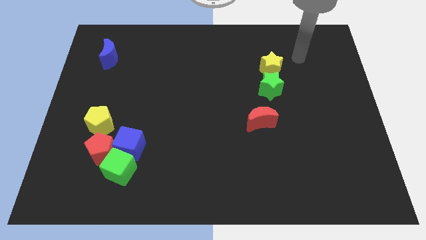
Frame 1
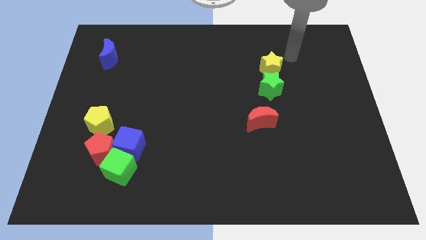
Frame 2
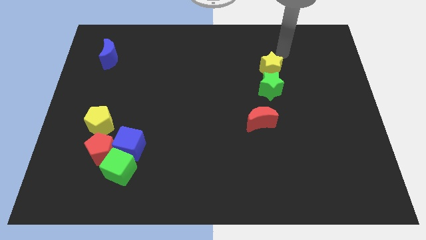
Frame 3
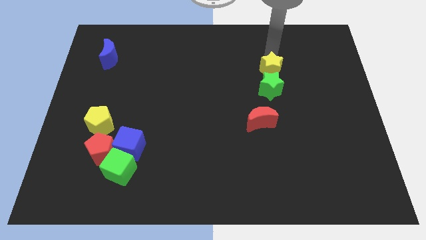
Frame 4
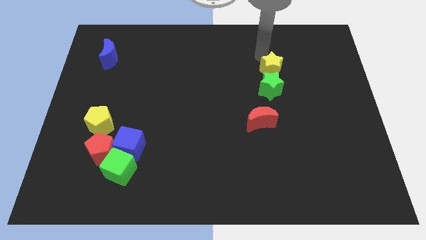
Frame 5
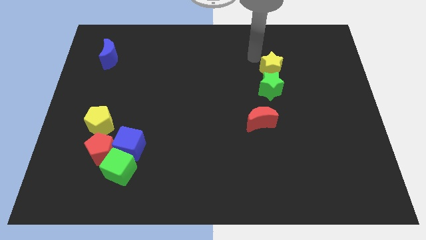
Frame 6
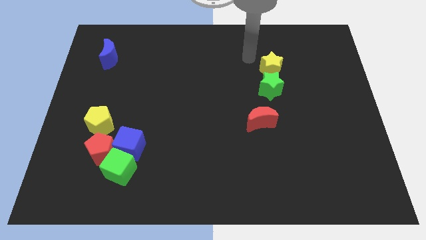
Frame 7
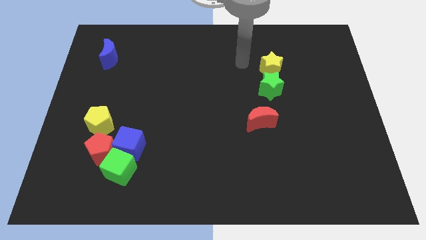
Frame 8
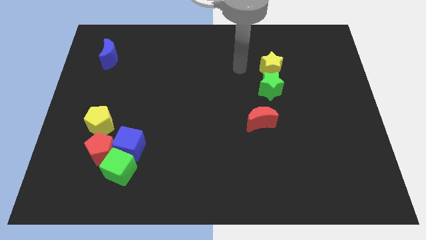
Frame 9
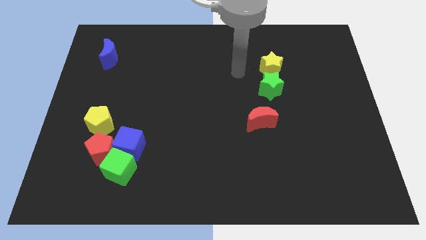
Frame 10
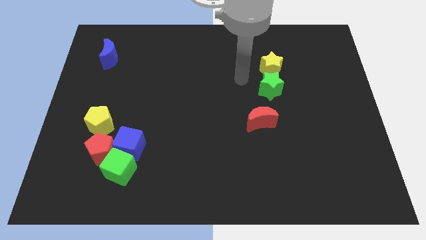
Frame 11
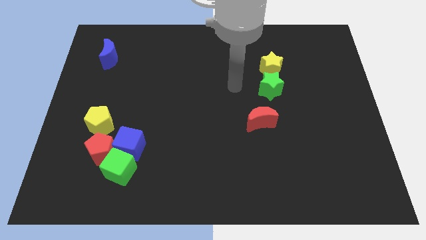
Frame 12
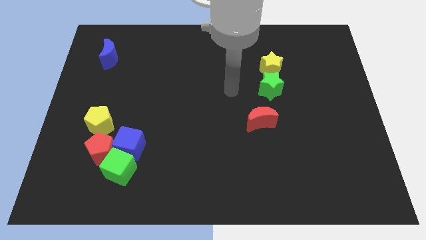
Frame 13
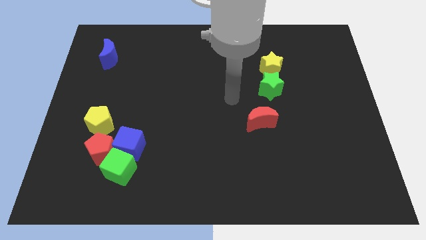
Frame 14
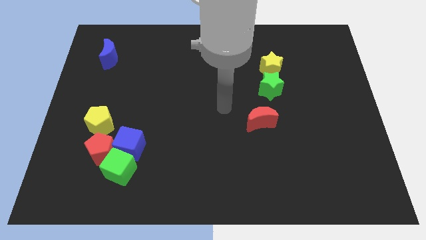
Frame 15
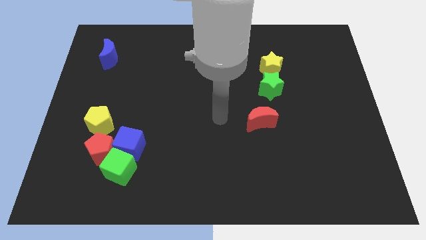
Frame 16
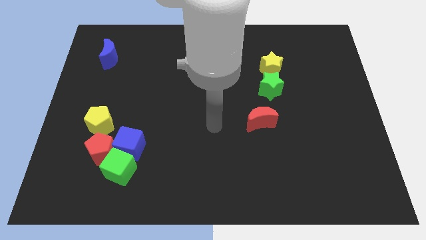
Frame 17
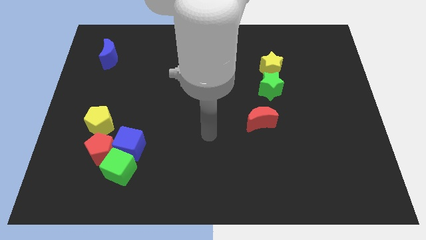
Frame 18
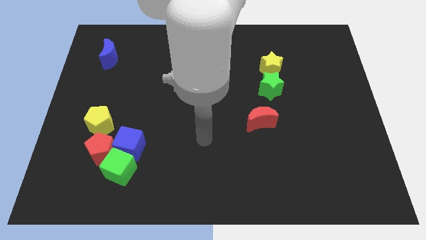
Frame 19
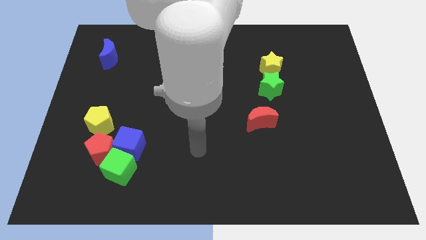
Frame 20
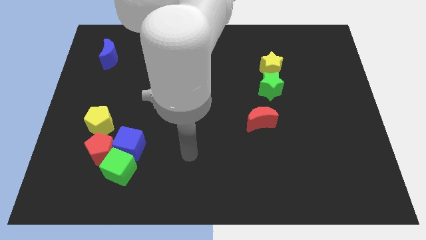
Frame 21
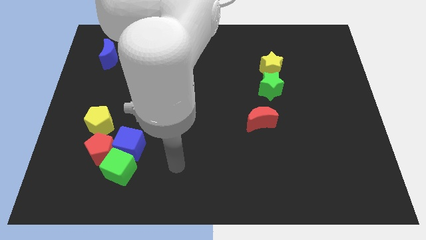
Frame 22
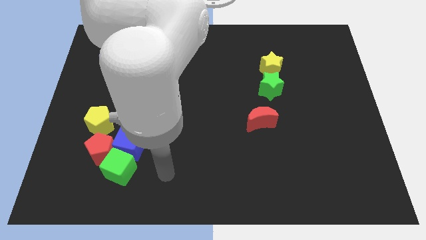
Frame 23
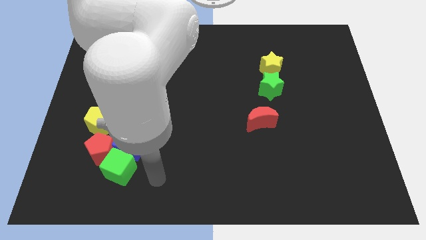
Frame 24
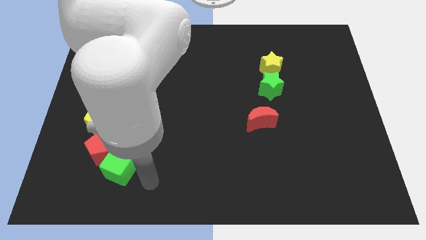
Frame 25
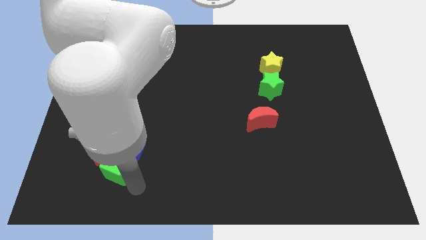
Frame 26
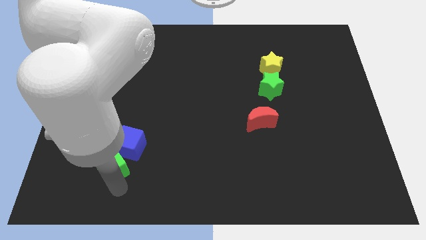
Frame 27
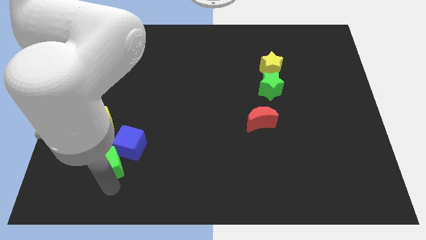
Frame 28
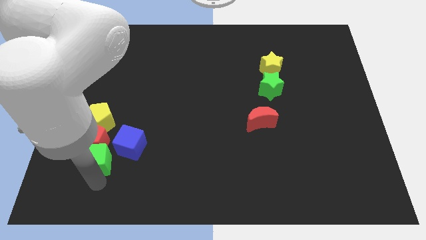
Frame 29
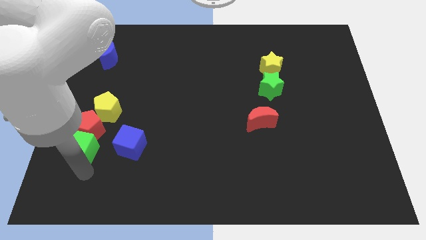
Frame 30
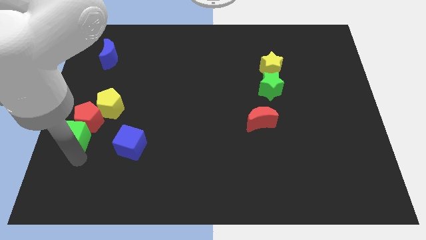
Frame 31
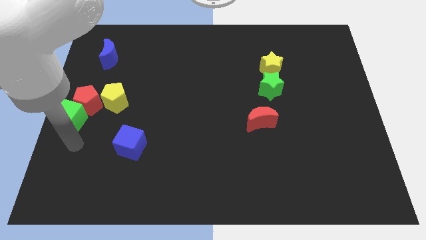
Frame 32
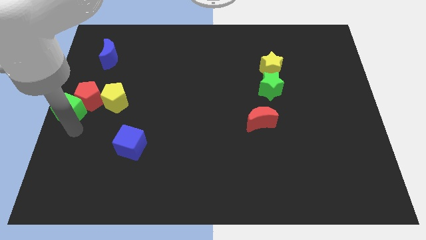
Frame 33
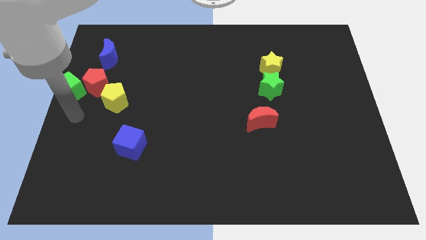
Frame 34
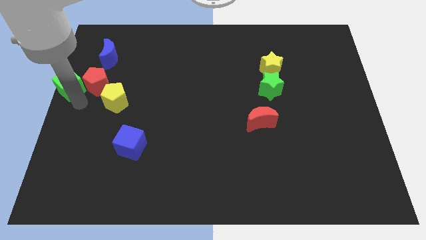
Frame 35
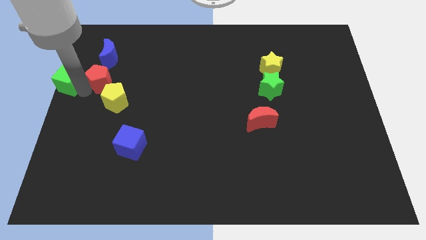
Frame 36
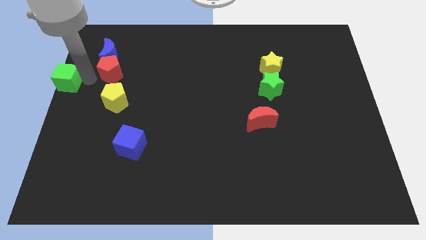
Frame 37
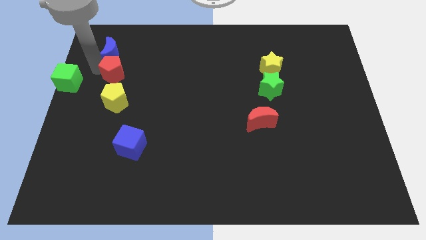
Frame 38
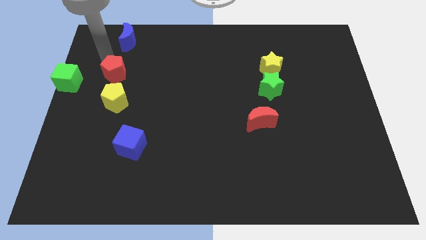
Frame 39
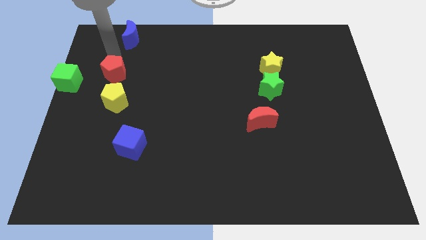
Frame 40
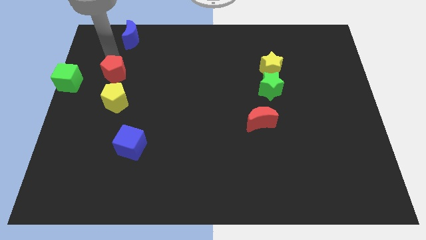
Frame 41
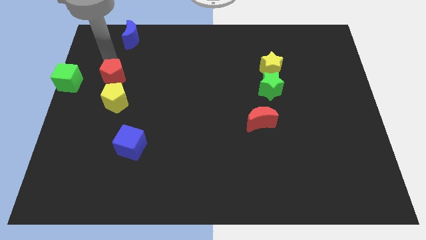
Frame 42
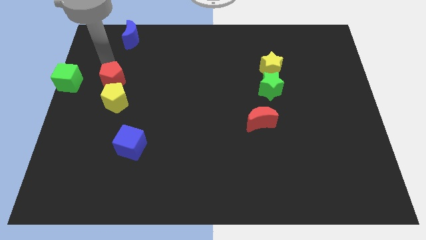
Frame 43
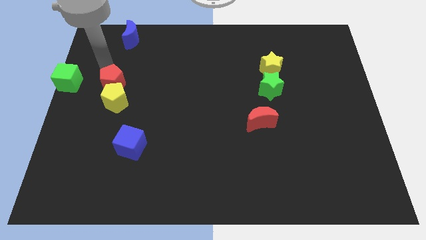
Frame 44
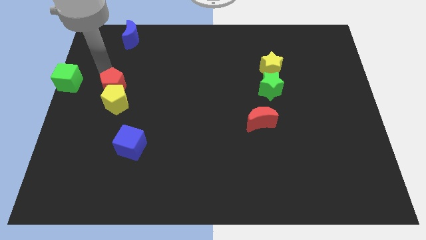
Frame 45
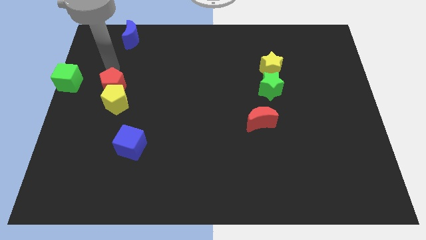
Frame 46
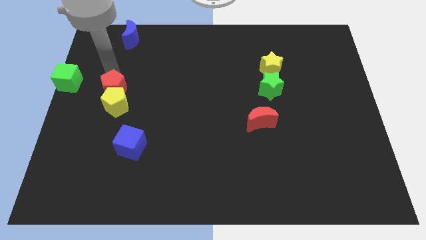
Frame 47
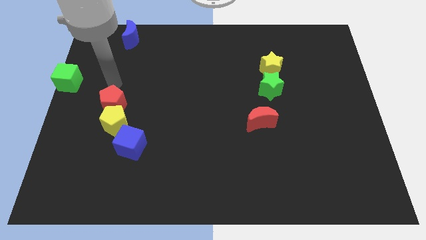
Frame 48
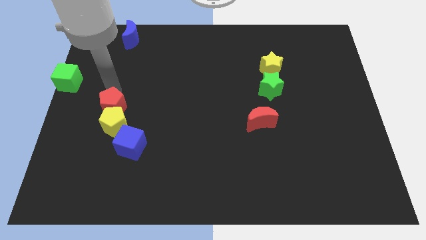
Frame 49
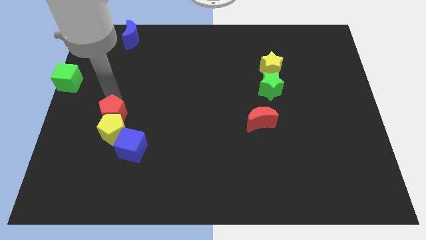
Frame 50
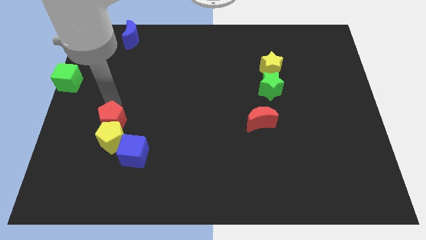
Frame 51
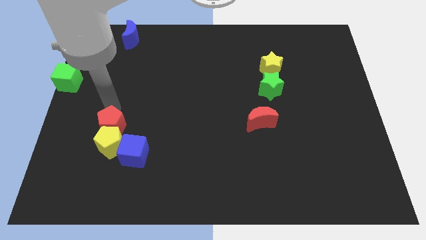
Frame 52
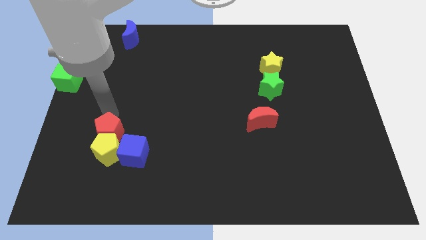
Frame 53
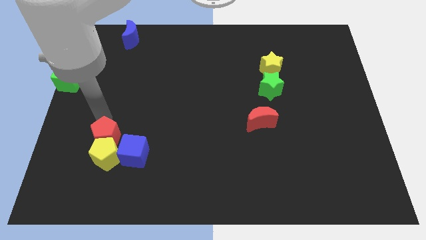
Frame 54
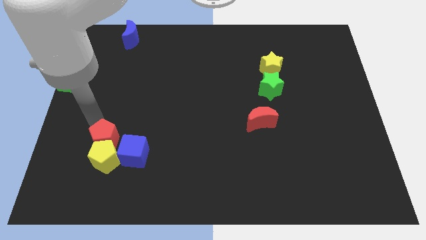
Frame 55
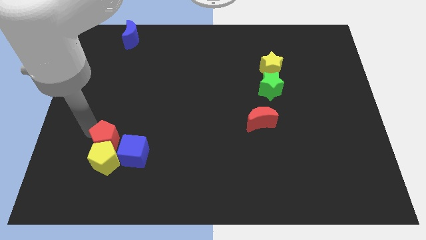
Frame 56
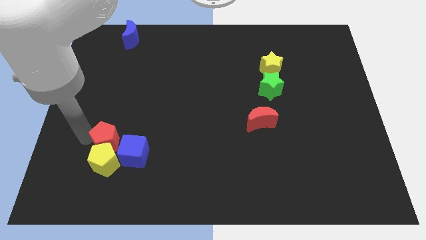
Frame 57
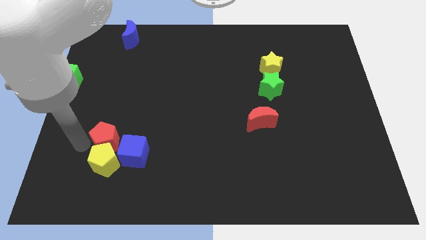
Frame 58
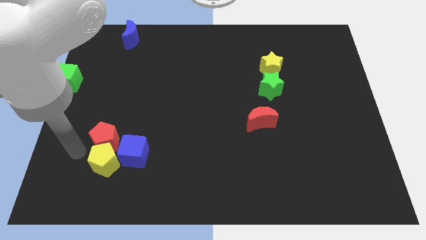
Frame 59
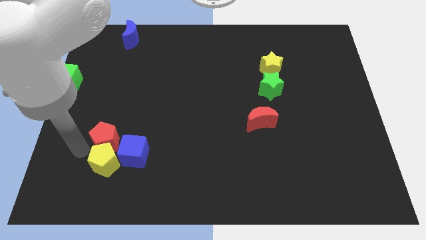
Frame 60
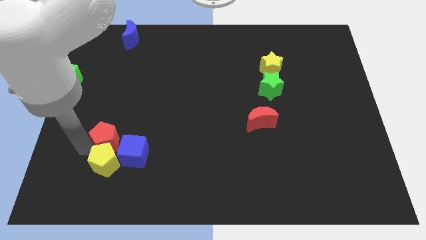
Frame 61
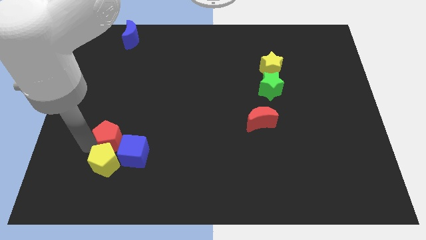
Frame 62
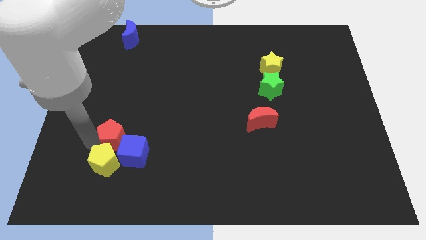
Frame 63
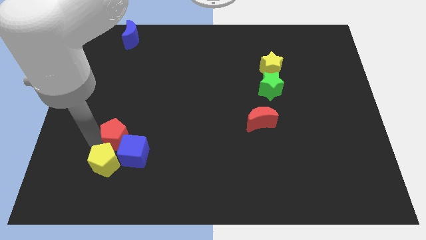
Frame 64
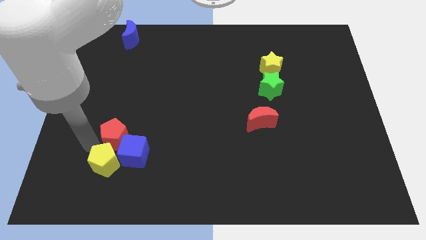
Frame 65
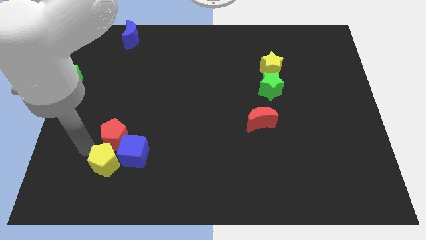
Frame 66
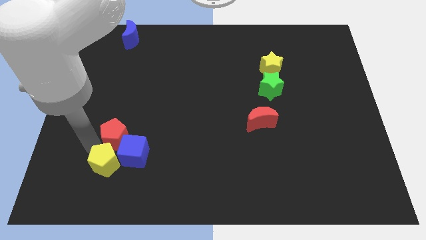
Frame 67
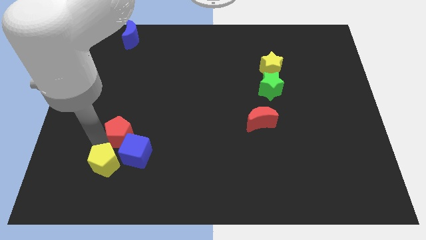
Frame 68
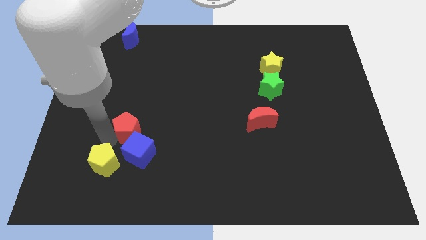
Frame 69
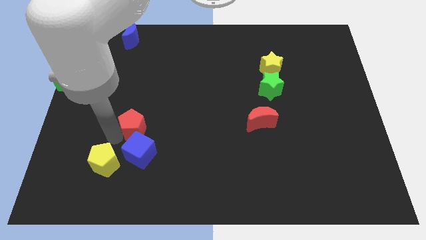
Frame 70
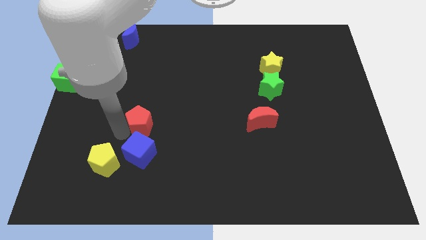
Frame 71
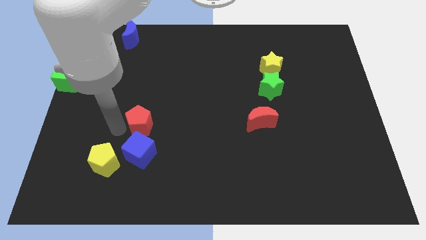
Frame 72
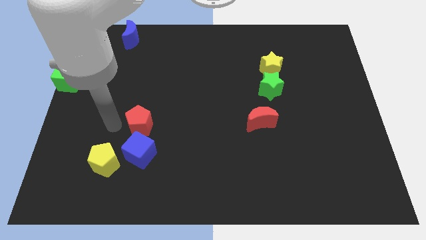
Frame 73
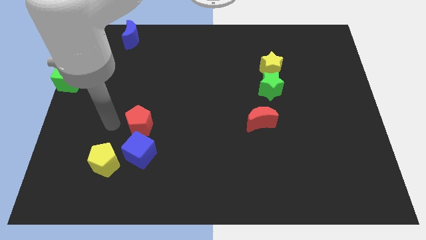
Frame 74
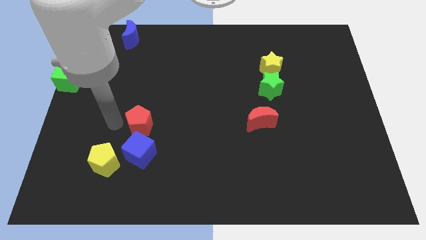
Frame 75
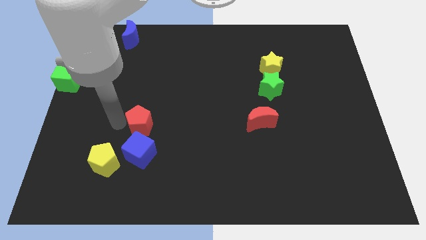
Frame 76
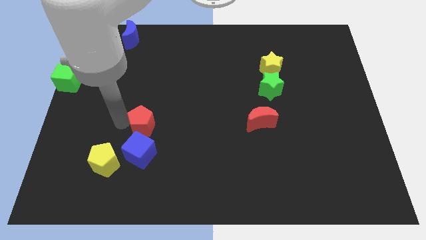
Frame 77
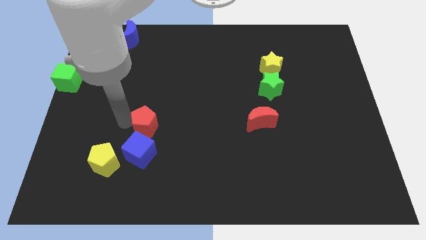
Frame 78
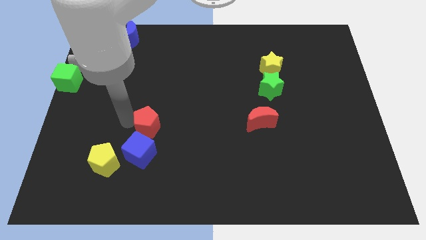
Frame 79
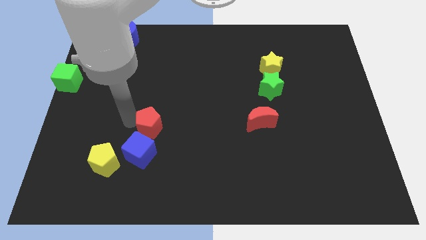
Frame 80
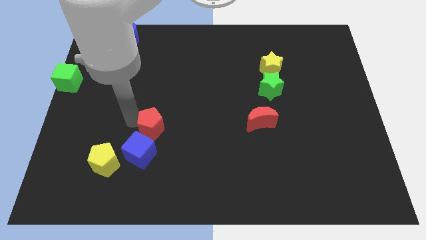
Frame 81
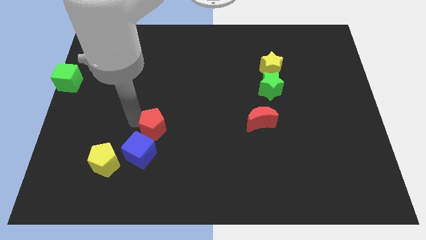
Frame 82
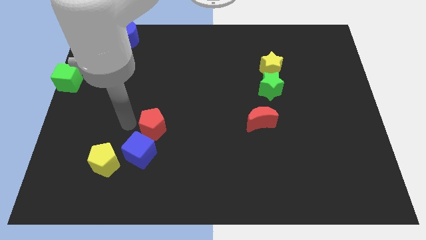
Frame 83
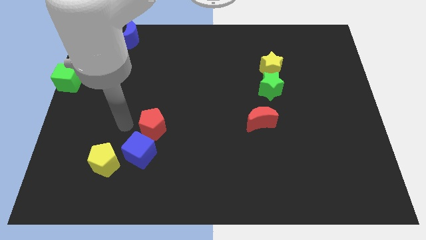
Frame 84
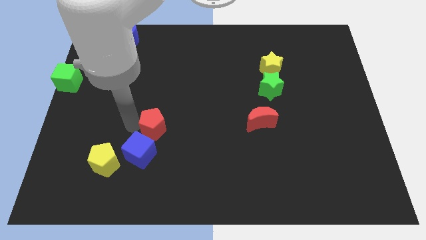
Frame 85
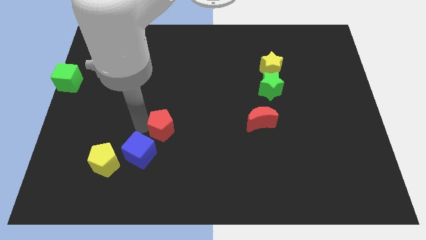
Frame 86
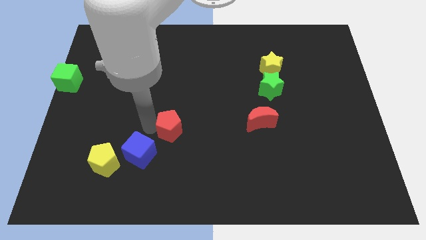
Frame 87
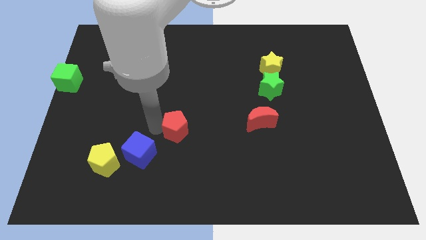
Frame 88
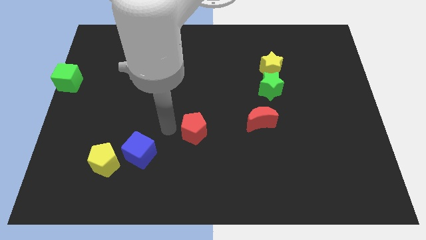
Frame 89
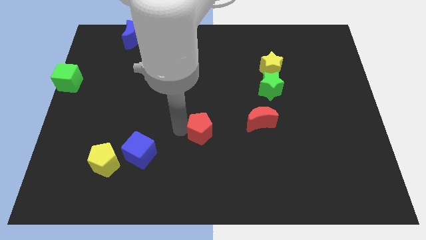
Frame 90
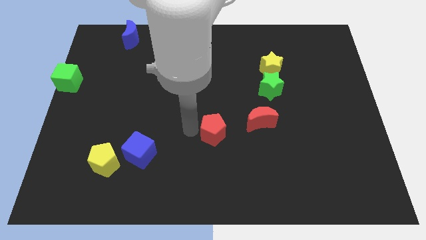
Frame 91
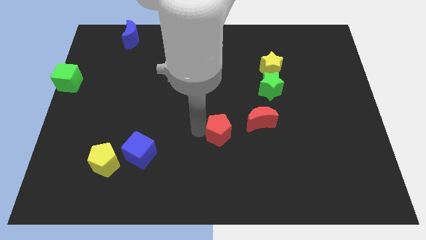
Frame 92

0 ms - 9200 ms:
slide the red pentagon to the bottom left of the red moon
